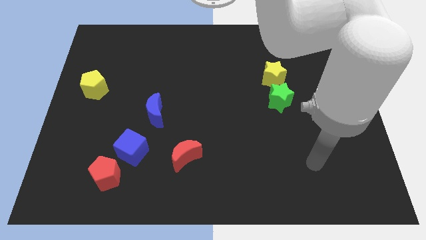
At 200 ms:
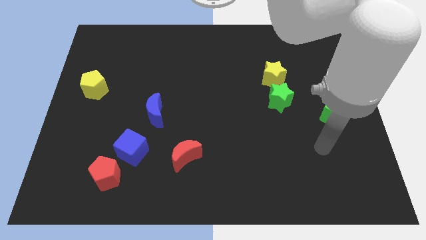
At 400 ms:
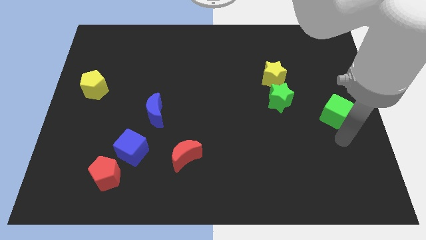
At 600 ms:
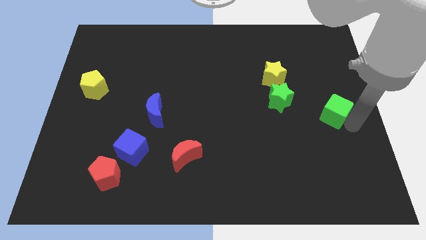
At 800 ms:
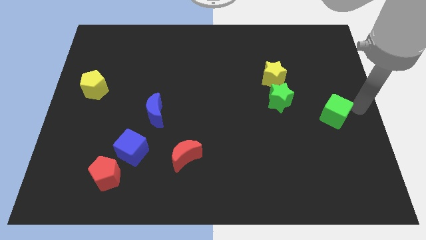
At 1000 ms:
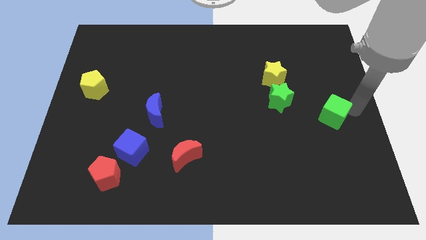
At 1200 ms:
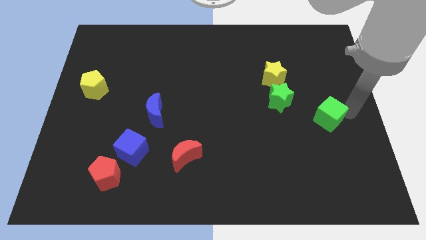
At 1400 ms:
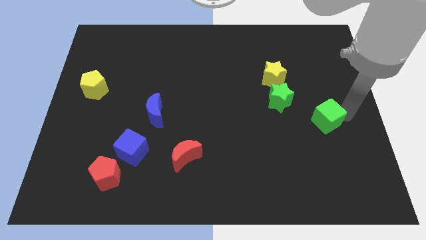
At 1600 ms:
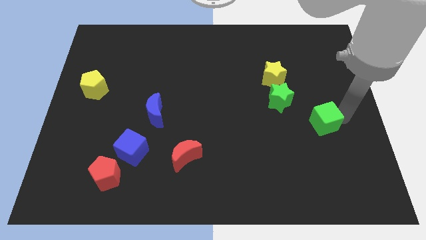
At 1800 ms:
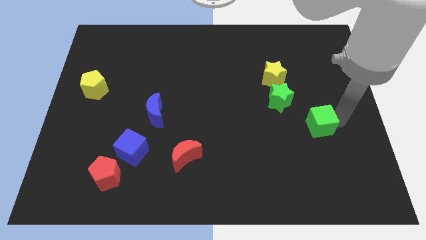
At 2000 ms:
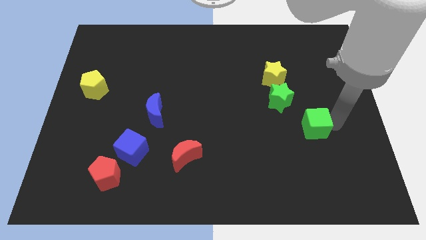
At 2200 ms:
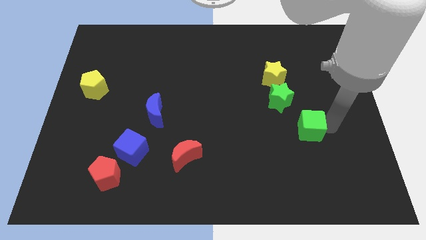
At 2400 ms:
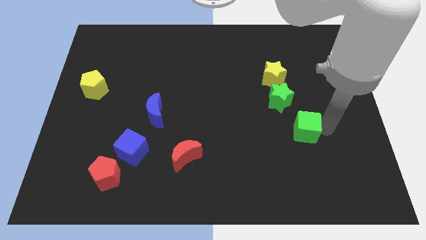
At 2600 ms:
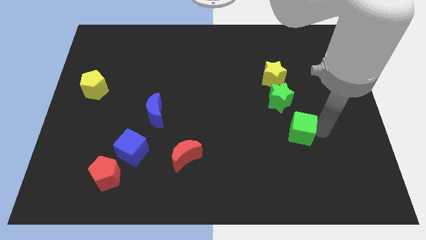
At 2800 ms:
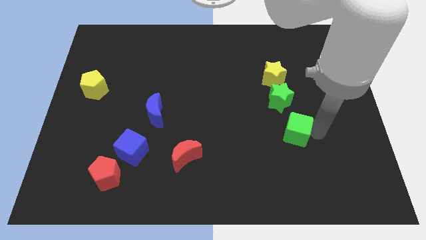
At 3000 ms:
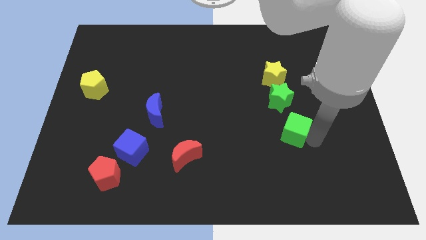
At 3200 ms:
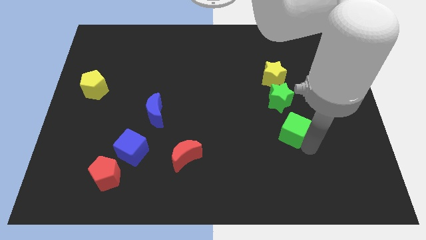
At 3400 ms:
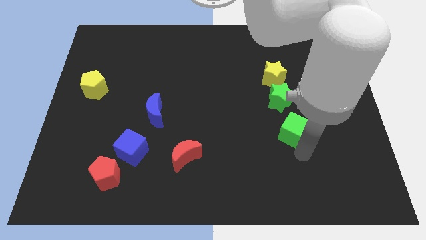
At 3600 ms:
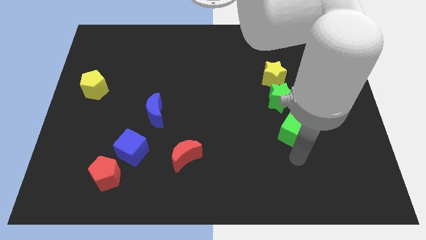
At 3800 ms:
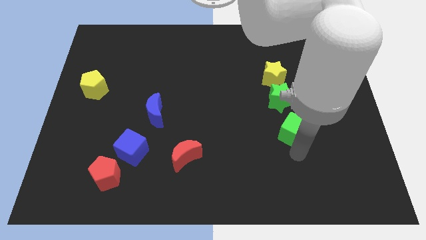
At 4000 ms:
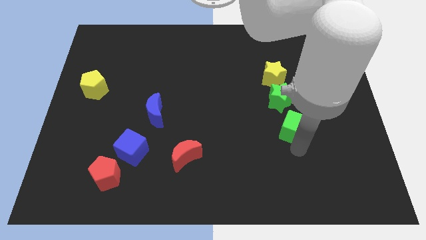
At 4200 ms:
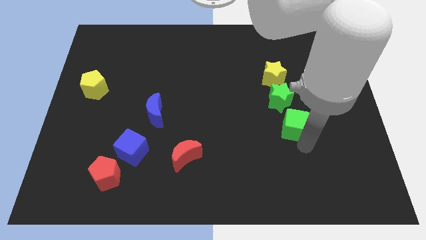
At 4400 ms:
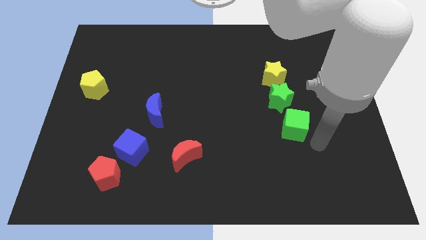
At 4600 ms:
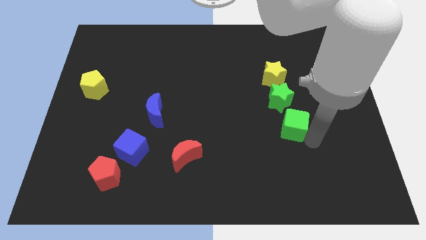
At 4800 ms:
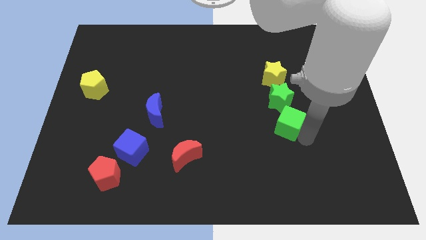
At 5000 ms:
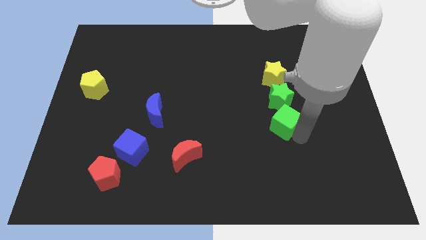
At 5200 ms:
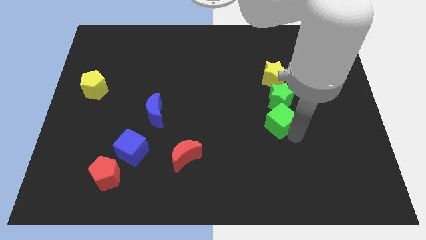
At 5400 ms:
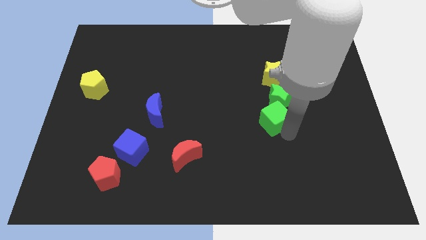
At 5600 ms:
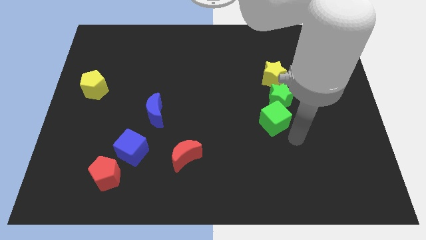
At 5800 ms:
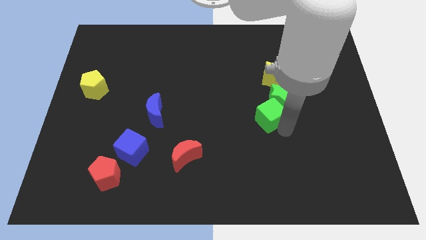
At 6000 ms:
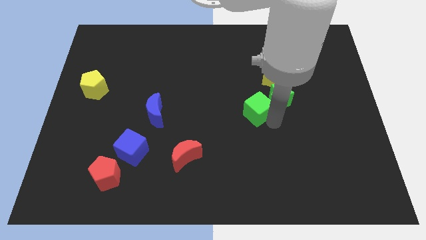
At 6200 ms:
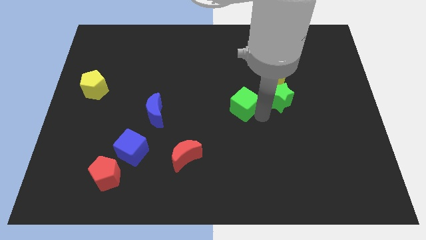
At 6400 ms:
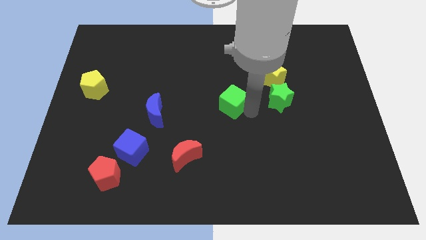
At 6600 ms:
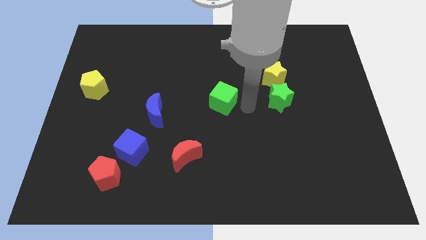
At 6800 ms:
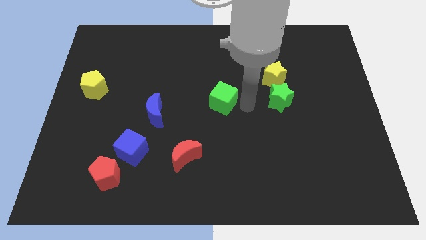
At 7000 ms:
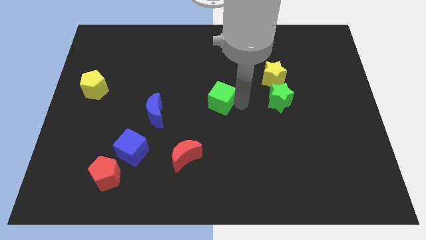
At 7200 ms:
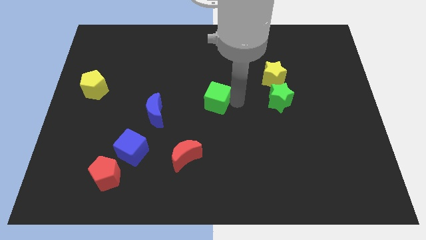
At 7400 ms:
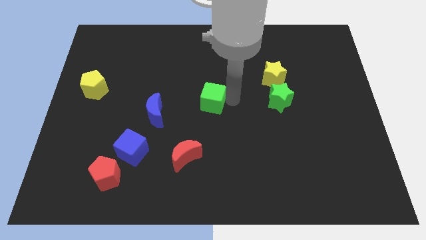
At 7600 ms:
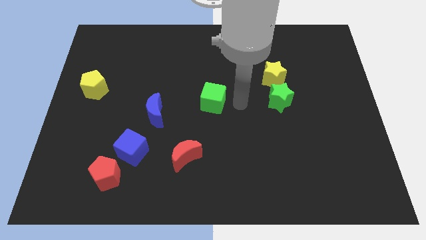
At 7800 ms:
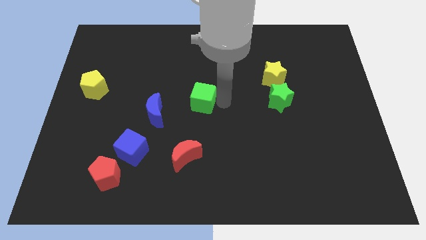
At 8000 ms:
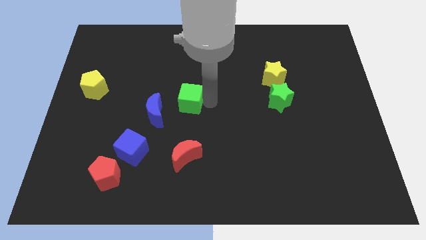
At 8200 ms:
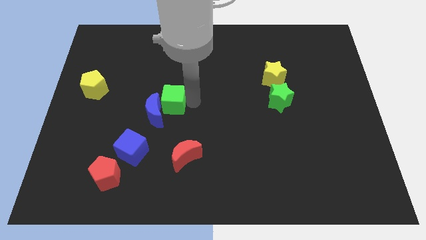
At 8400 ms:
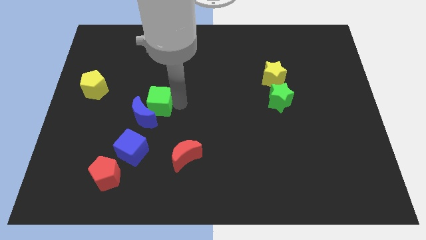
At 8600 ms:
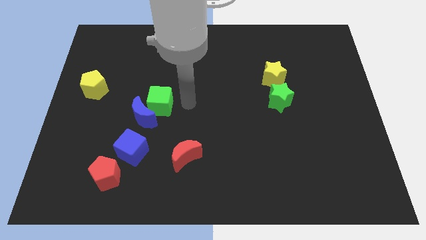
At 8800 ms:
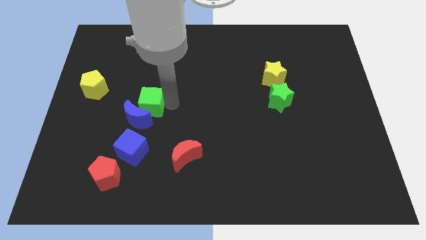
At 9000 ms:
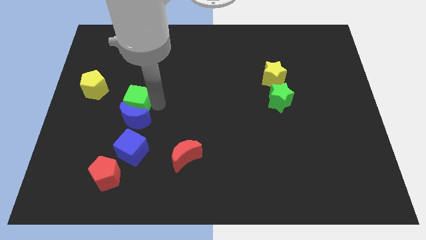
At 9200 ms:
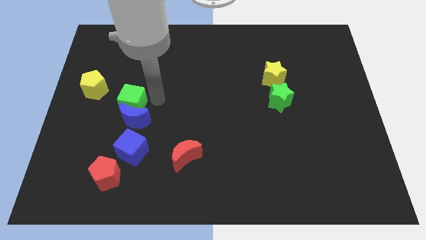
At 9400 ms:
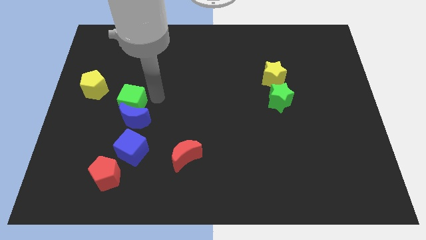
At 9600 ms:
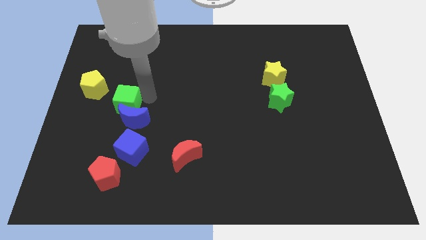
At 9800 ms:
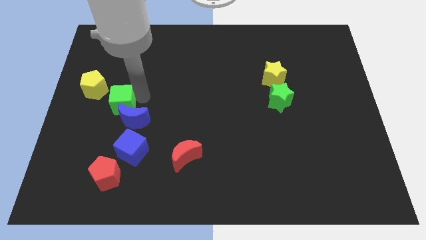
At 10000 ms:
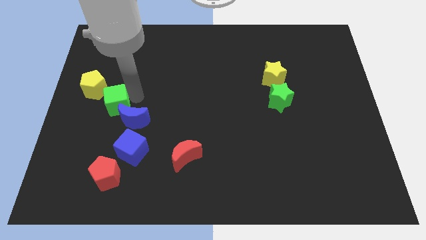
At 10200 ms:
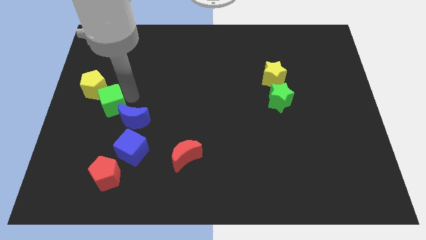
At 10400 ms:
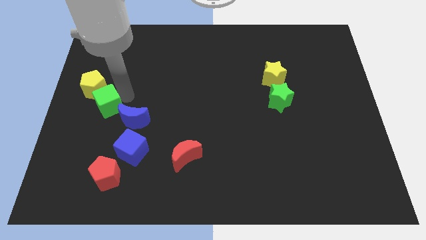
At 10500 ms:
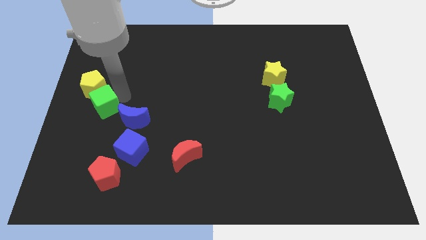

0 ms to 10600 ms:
move the green cube to the center left
